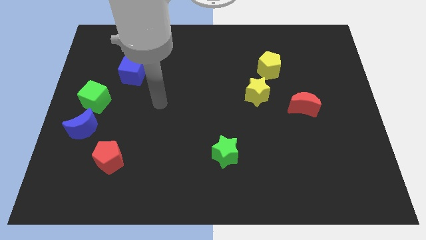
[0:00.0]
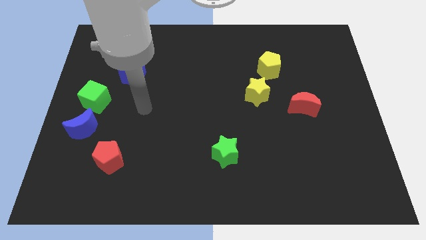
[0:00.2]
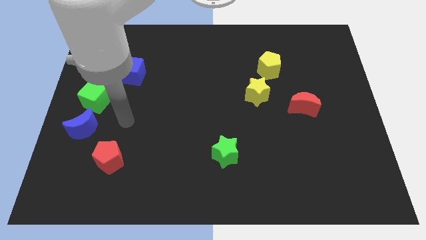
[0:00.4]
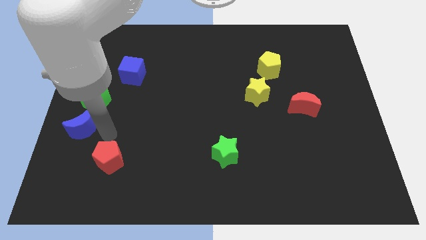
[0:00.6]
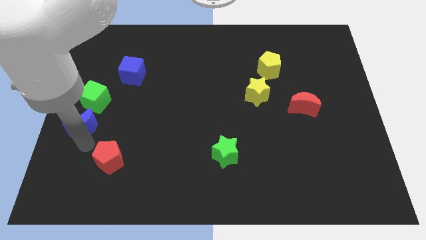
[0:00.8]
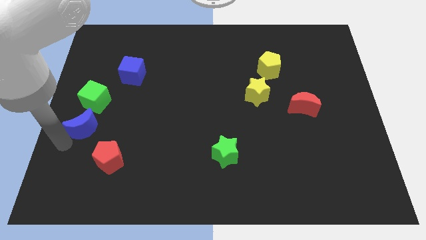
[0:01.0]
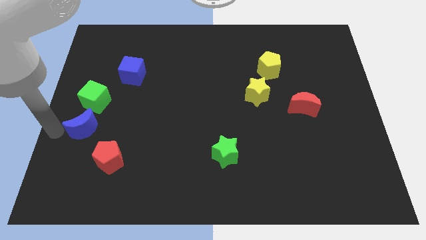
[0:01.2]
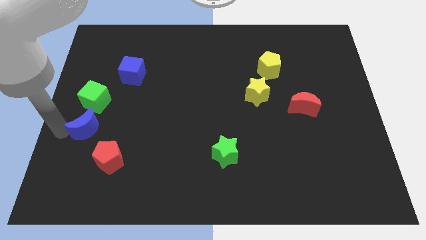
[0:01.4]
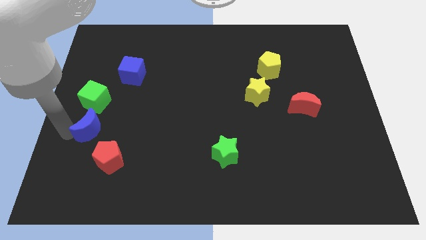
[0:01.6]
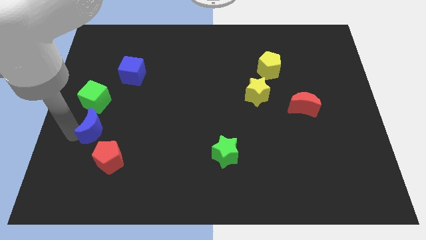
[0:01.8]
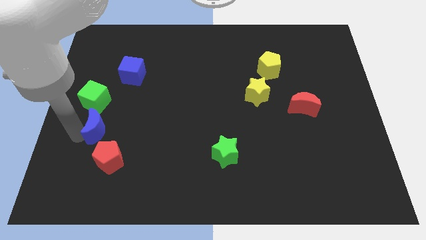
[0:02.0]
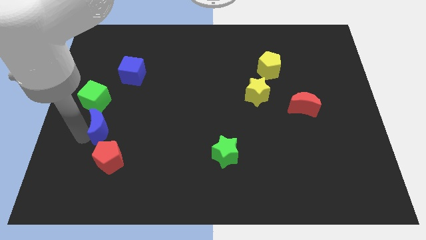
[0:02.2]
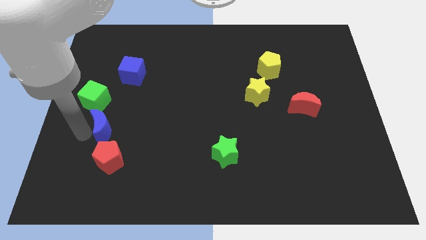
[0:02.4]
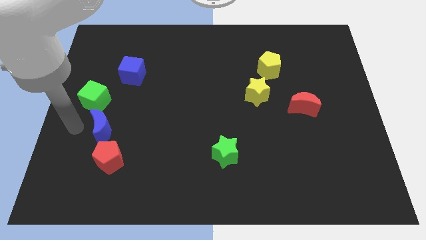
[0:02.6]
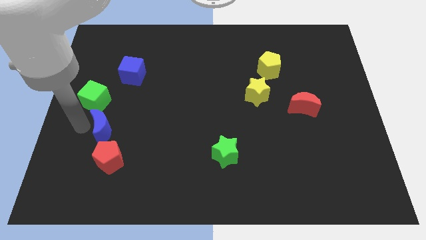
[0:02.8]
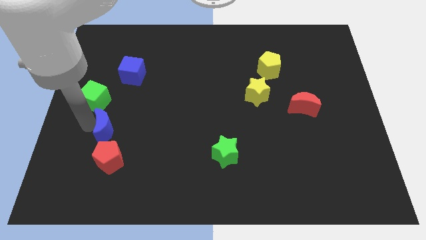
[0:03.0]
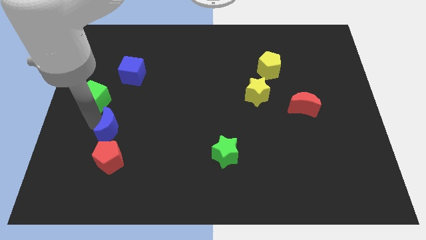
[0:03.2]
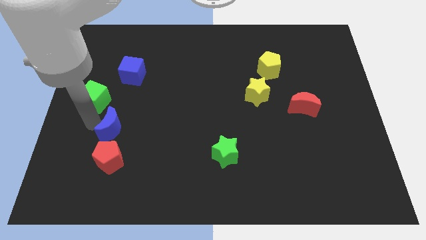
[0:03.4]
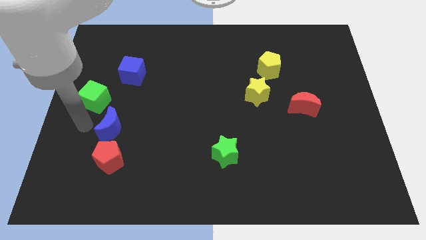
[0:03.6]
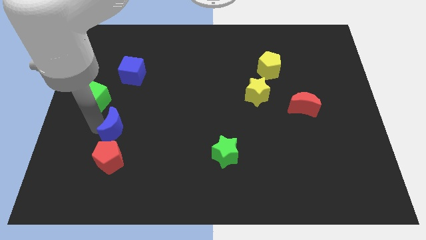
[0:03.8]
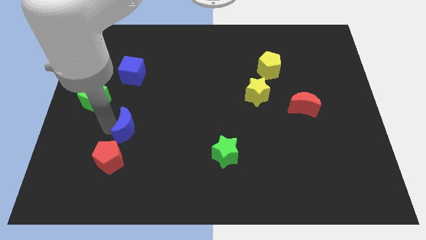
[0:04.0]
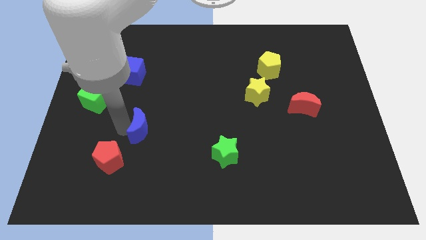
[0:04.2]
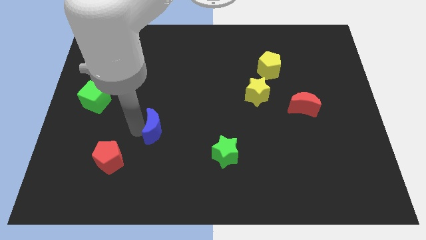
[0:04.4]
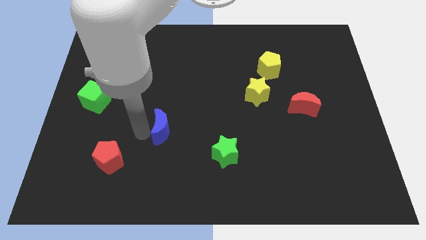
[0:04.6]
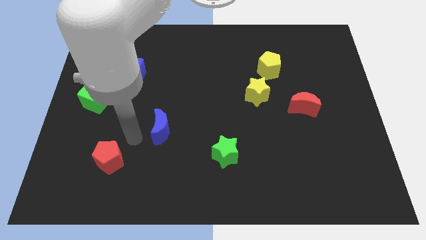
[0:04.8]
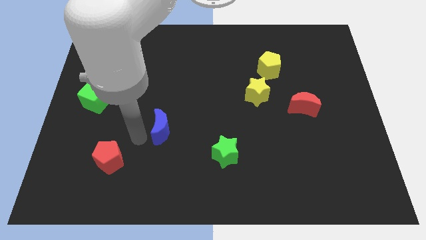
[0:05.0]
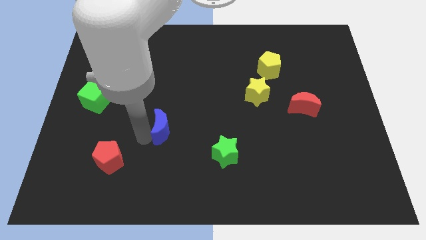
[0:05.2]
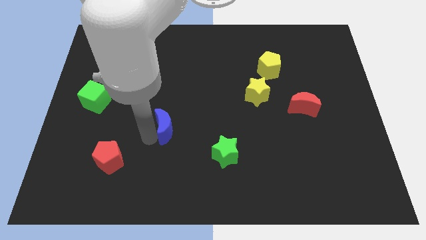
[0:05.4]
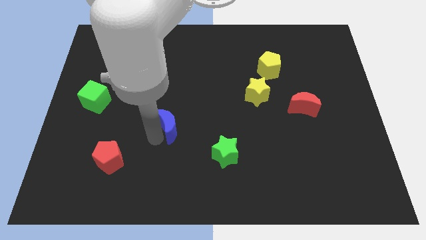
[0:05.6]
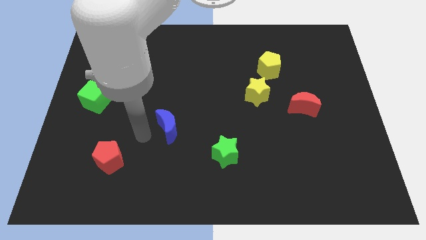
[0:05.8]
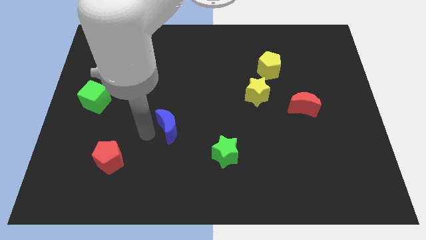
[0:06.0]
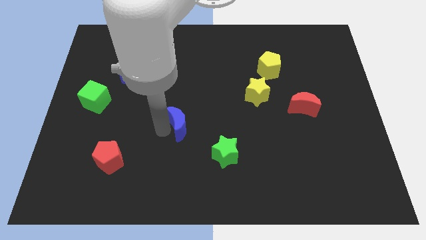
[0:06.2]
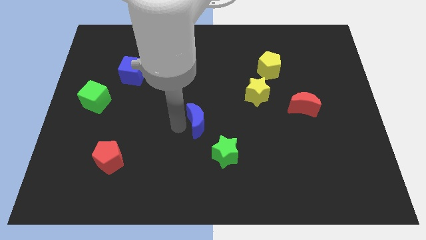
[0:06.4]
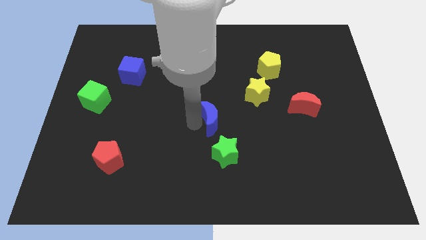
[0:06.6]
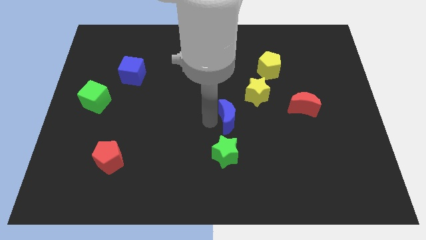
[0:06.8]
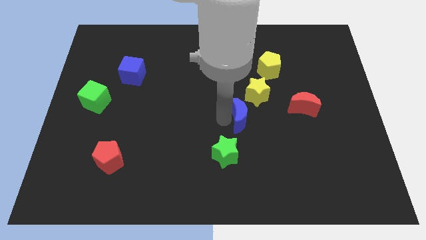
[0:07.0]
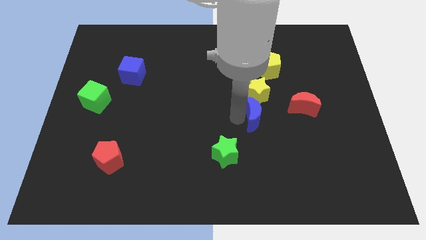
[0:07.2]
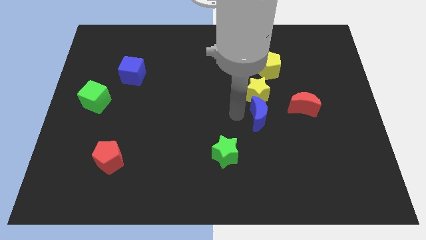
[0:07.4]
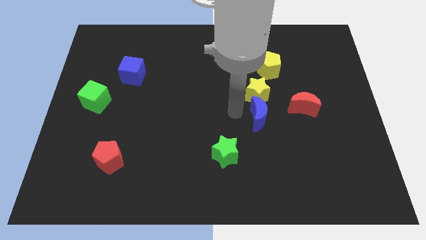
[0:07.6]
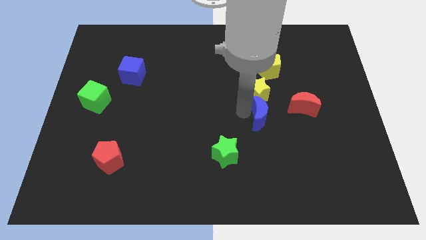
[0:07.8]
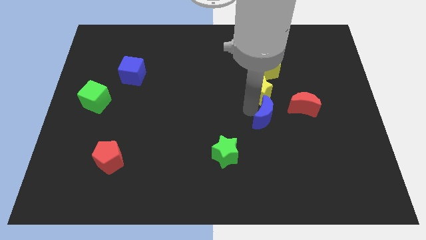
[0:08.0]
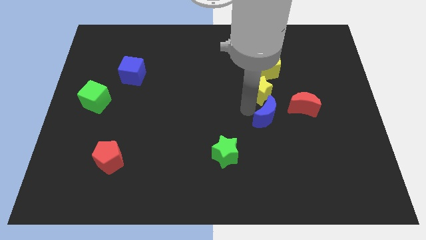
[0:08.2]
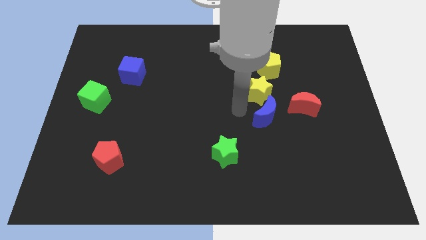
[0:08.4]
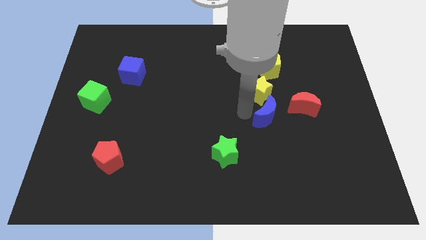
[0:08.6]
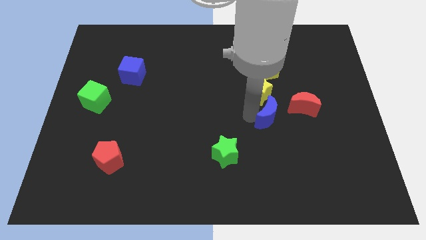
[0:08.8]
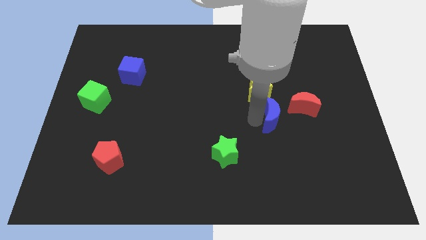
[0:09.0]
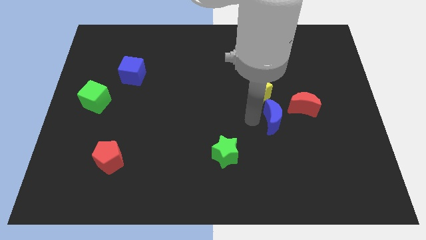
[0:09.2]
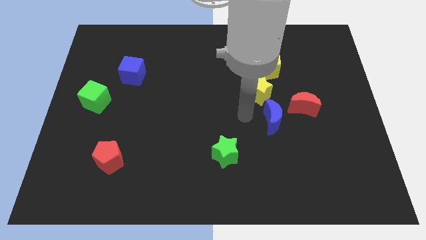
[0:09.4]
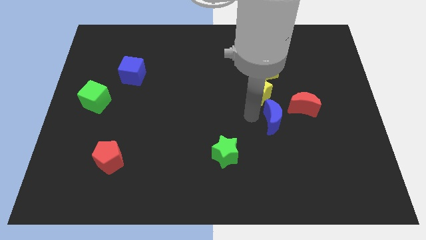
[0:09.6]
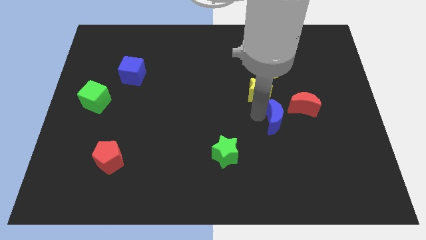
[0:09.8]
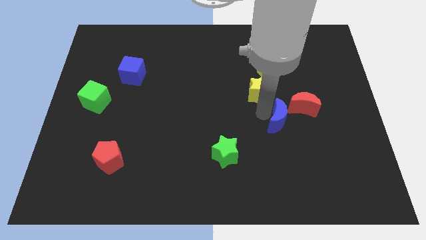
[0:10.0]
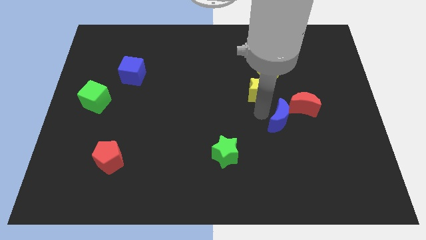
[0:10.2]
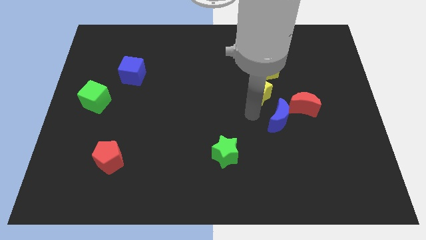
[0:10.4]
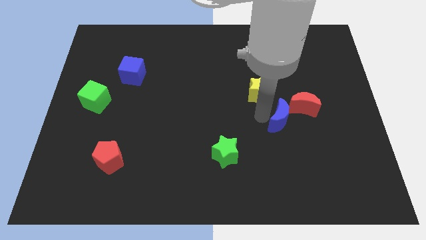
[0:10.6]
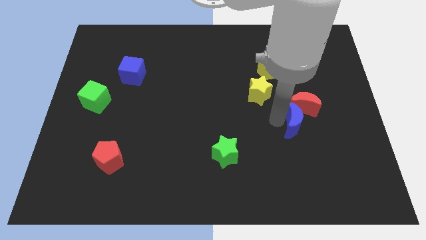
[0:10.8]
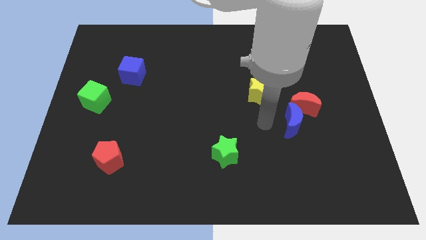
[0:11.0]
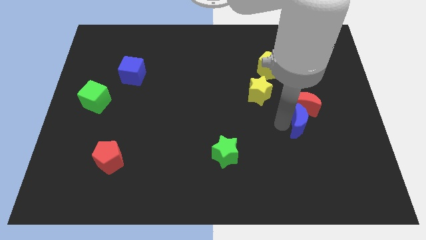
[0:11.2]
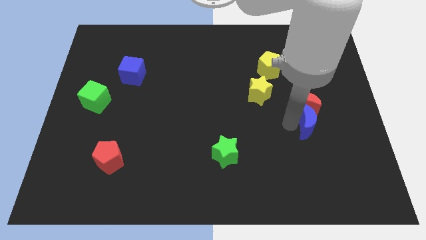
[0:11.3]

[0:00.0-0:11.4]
move the blue moon to the bottom right side of the red moon

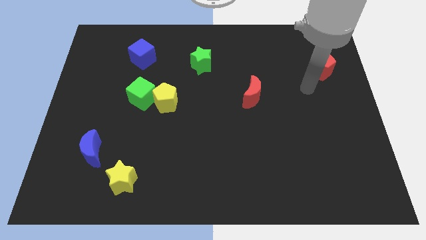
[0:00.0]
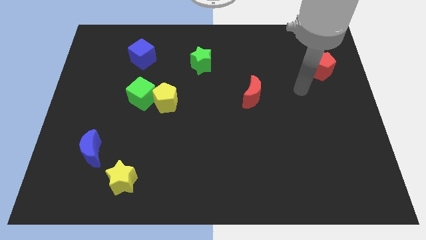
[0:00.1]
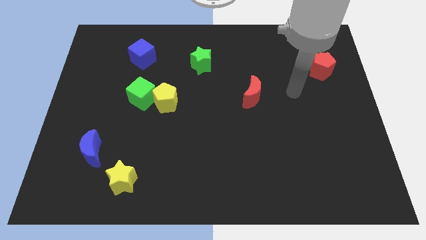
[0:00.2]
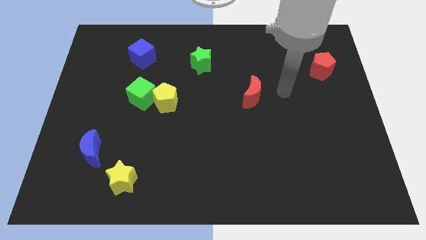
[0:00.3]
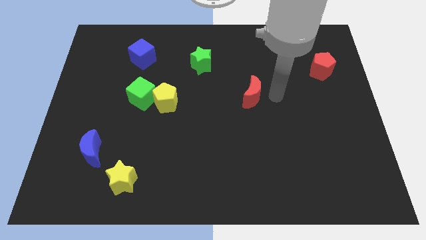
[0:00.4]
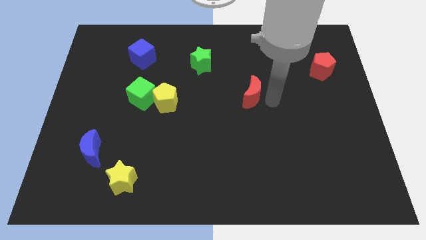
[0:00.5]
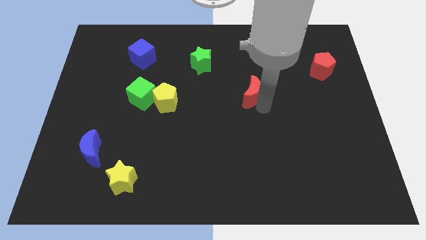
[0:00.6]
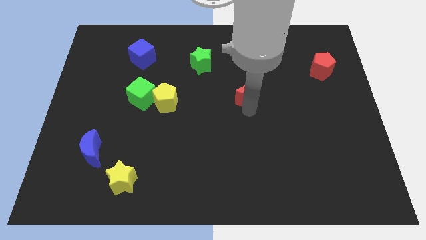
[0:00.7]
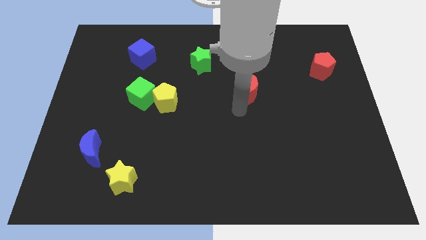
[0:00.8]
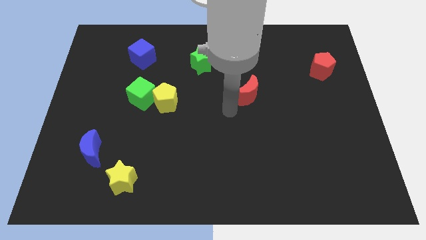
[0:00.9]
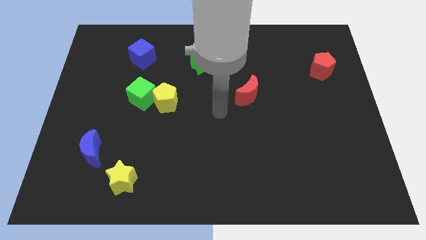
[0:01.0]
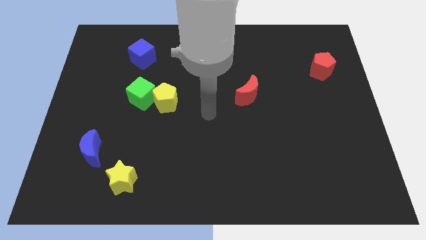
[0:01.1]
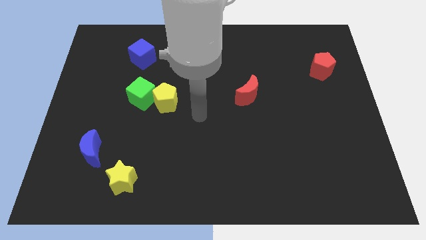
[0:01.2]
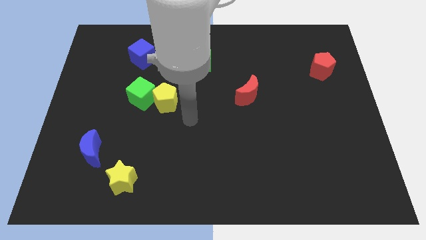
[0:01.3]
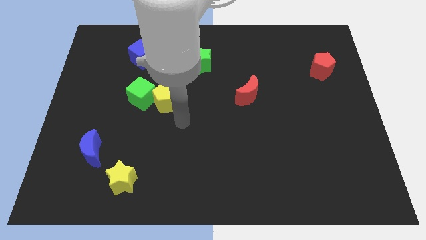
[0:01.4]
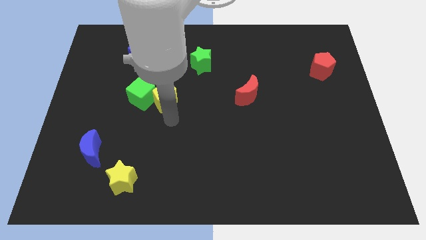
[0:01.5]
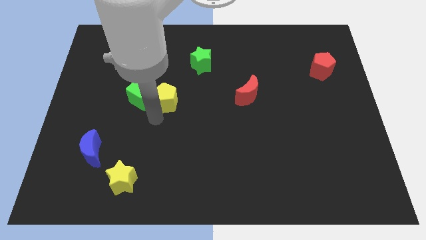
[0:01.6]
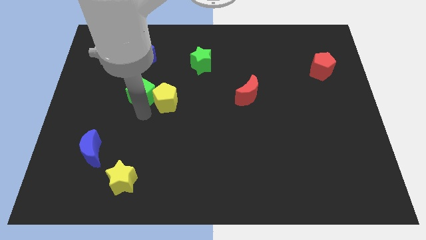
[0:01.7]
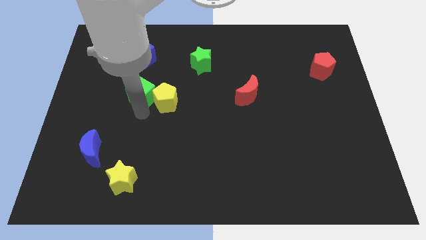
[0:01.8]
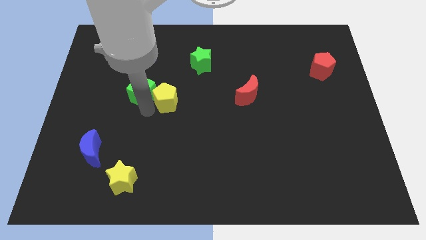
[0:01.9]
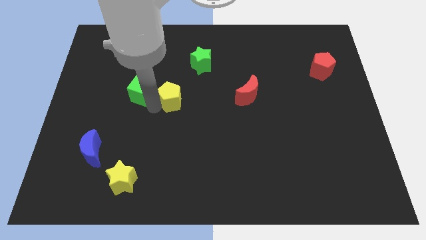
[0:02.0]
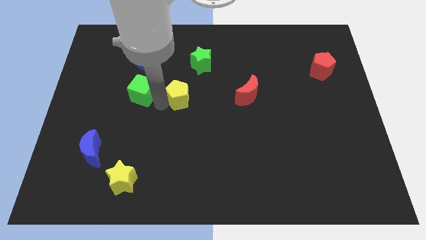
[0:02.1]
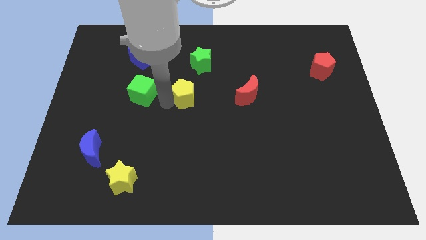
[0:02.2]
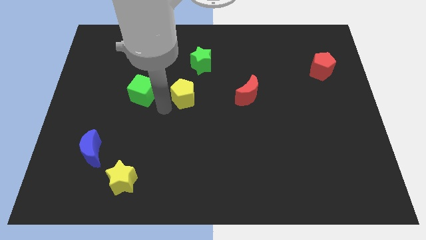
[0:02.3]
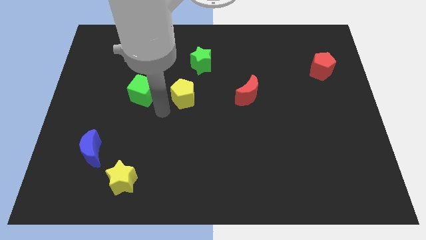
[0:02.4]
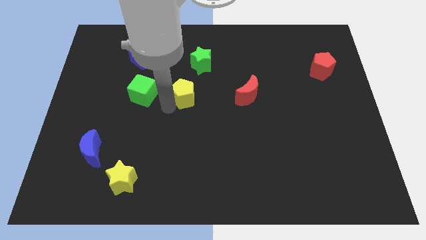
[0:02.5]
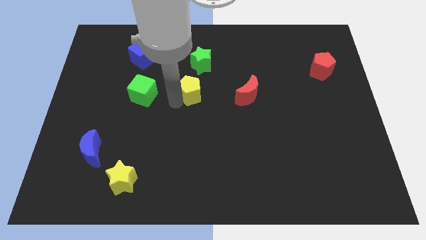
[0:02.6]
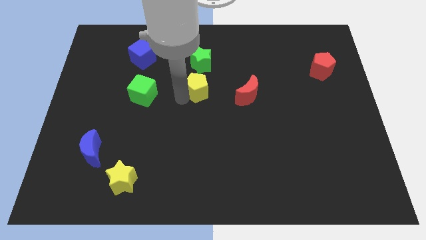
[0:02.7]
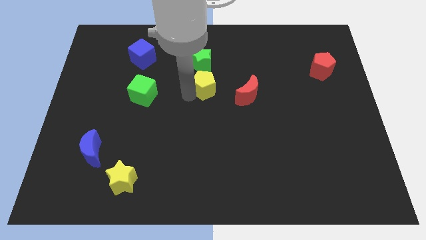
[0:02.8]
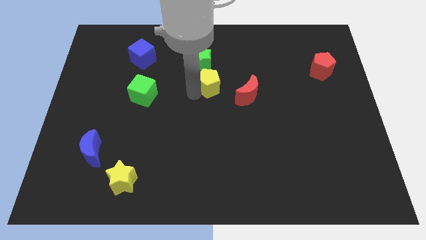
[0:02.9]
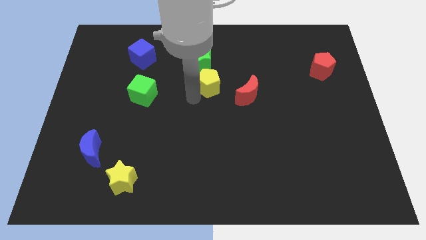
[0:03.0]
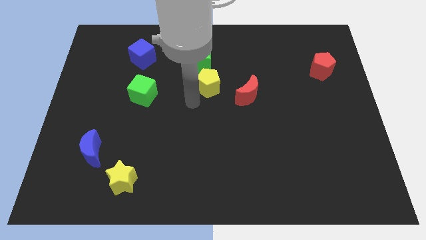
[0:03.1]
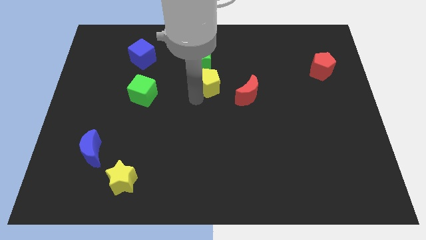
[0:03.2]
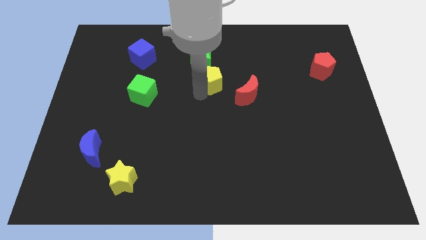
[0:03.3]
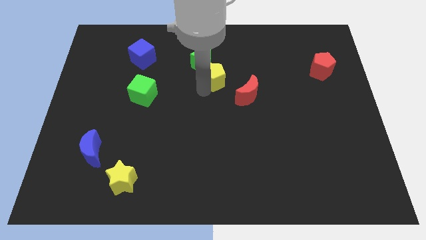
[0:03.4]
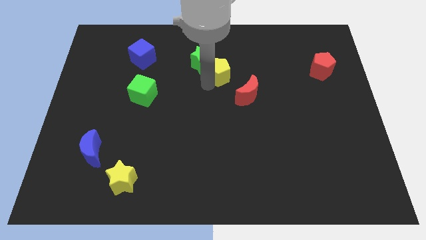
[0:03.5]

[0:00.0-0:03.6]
move the yellow pentagon to the right of the green star
